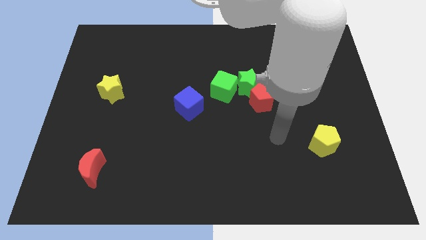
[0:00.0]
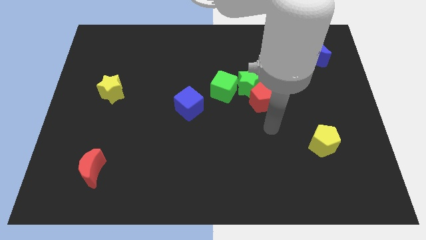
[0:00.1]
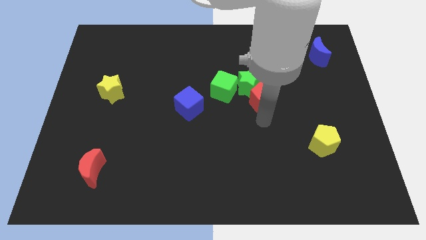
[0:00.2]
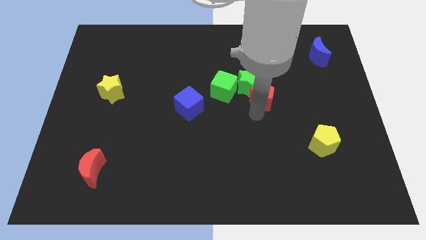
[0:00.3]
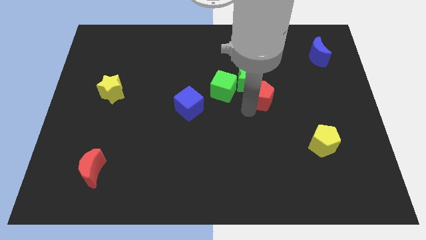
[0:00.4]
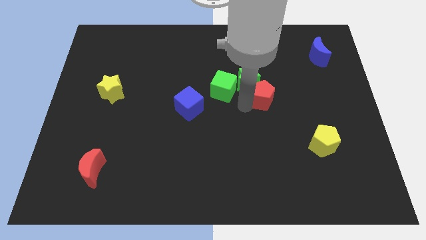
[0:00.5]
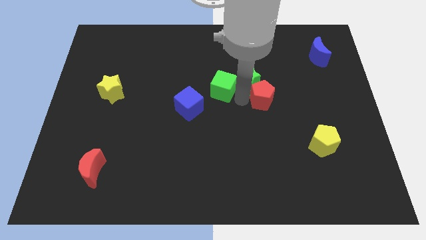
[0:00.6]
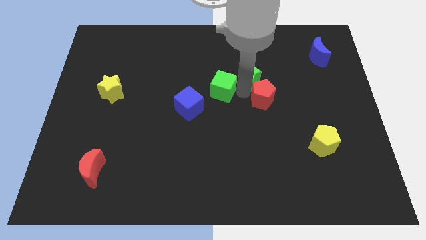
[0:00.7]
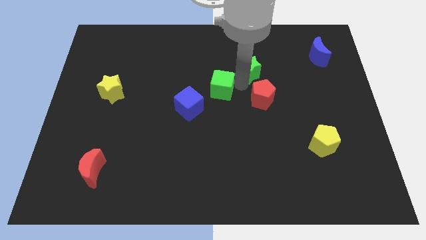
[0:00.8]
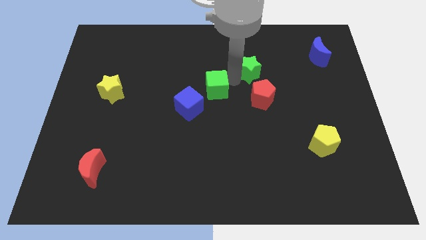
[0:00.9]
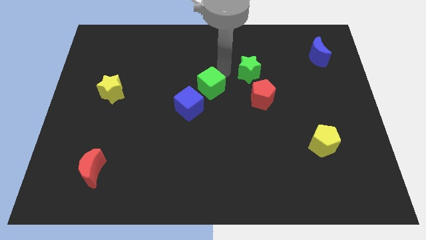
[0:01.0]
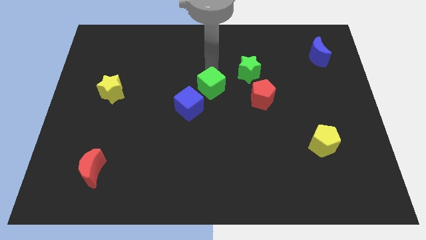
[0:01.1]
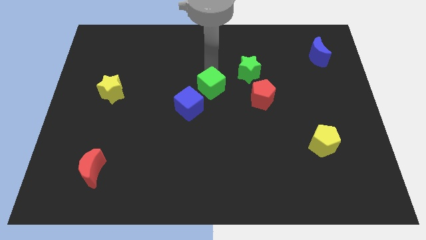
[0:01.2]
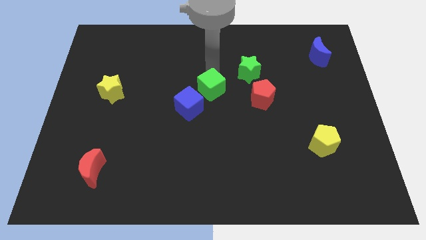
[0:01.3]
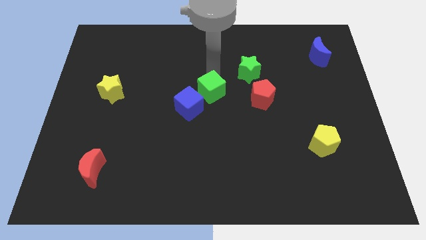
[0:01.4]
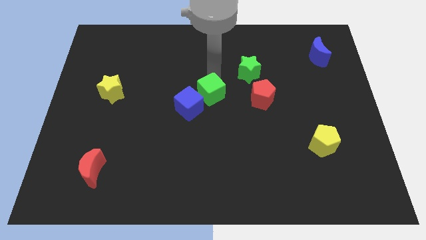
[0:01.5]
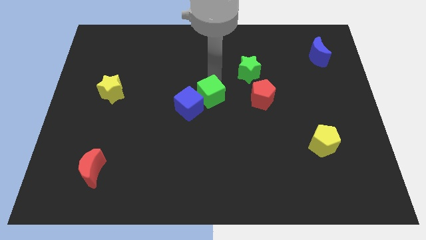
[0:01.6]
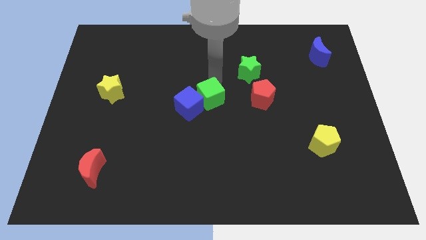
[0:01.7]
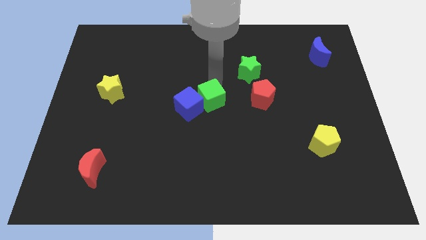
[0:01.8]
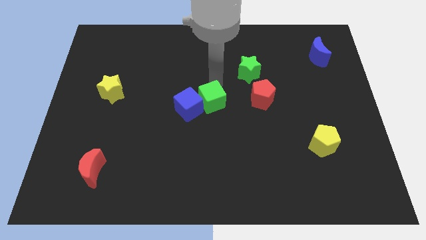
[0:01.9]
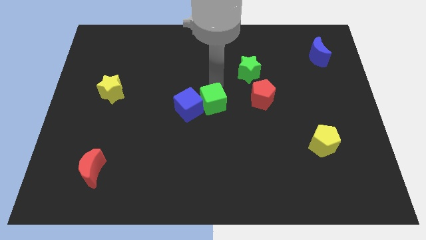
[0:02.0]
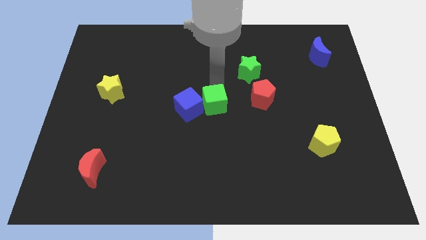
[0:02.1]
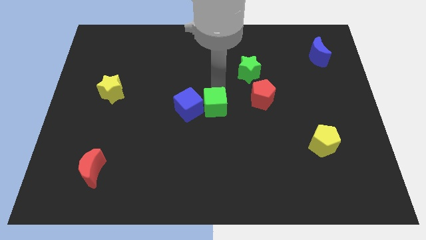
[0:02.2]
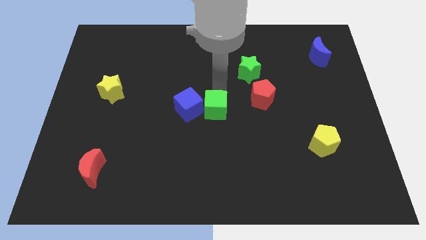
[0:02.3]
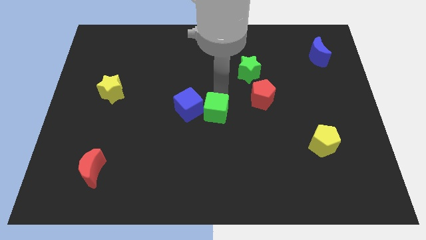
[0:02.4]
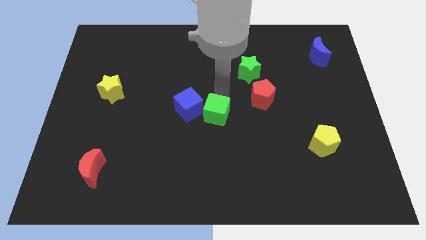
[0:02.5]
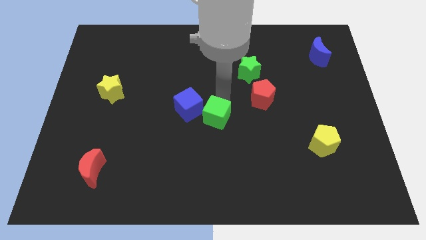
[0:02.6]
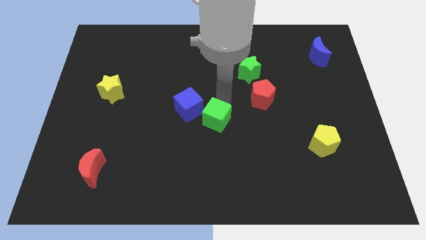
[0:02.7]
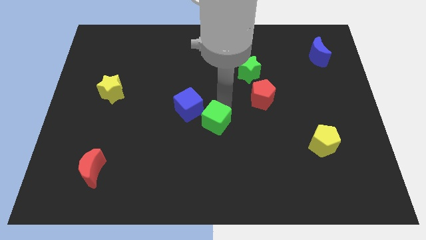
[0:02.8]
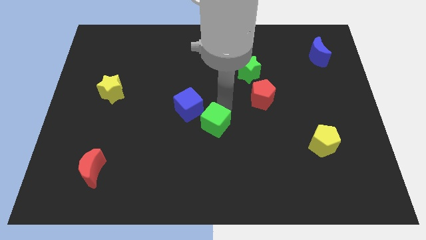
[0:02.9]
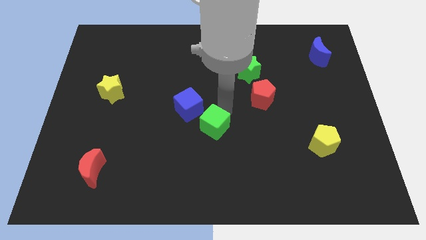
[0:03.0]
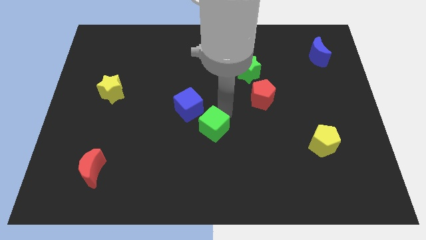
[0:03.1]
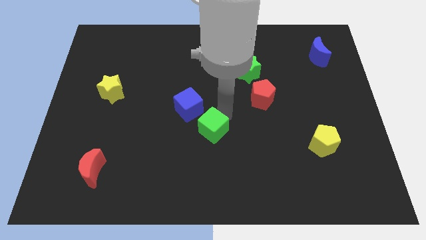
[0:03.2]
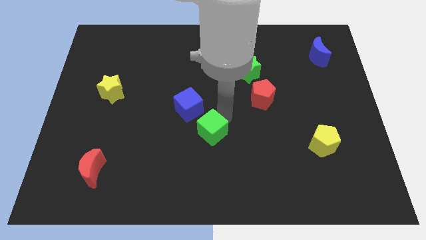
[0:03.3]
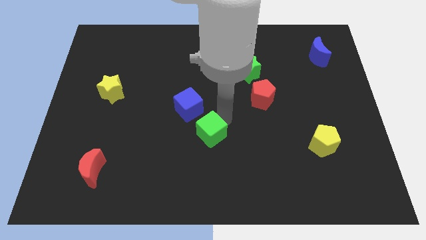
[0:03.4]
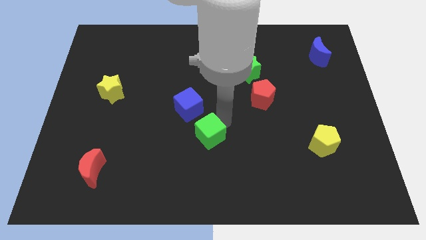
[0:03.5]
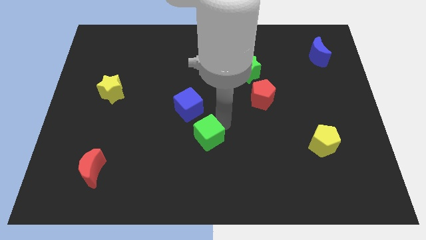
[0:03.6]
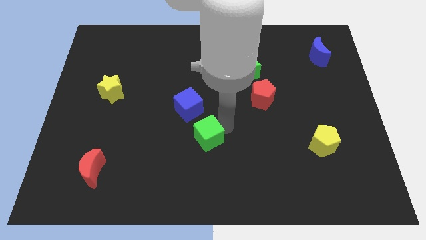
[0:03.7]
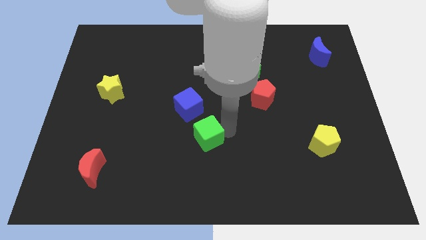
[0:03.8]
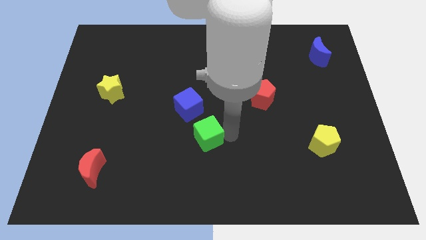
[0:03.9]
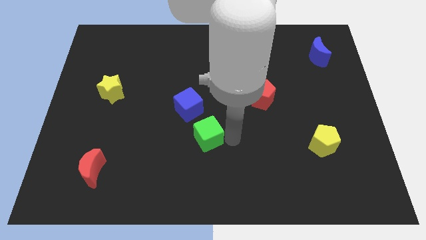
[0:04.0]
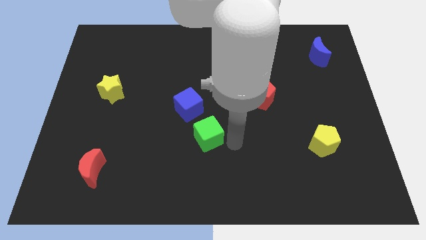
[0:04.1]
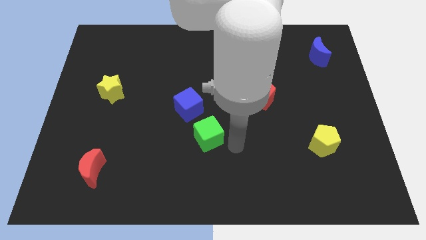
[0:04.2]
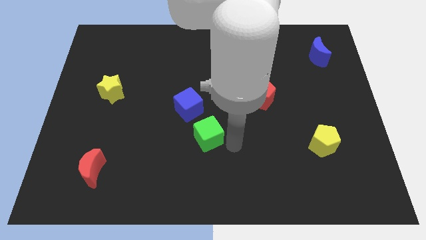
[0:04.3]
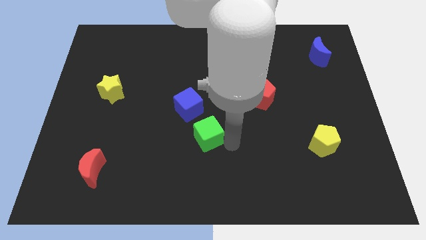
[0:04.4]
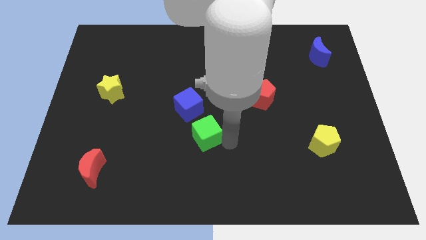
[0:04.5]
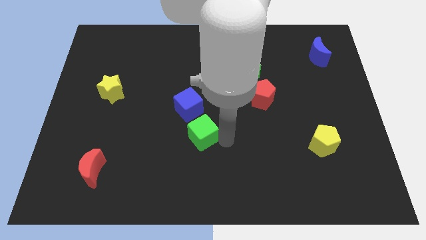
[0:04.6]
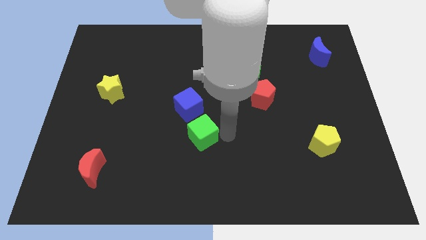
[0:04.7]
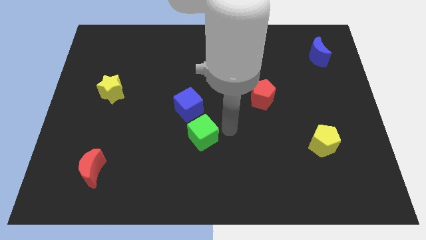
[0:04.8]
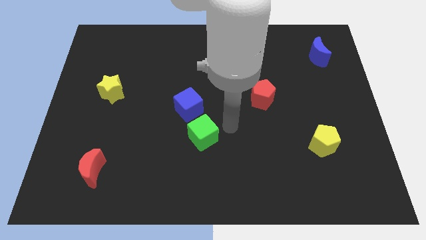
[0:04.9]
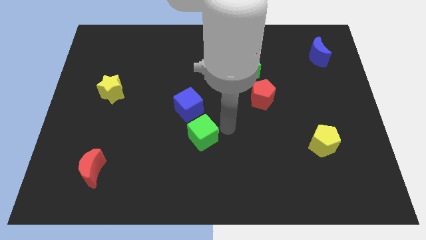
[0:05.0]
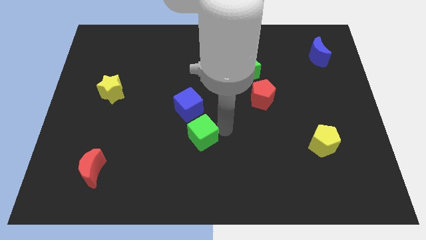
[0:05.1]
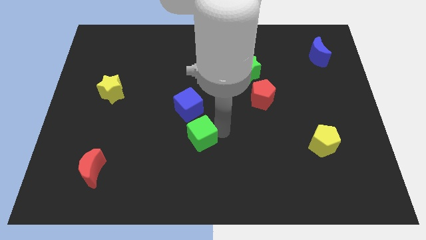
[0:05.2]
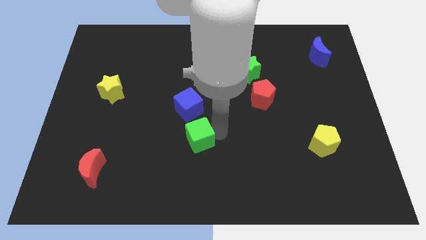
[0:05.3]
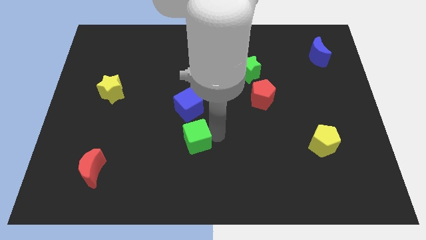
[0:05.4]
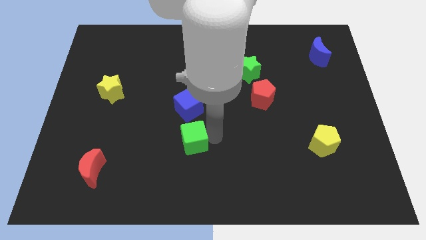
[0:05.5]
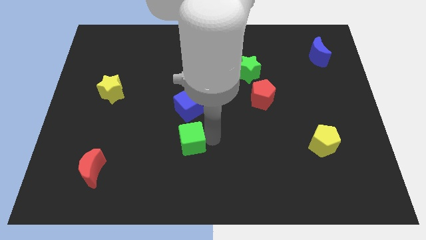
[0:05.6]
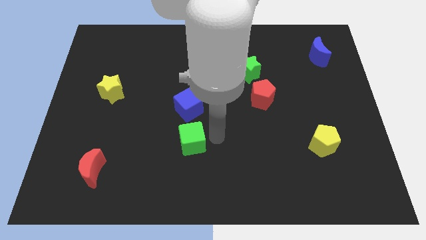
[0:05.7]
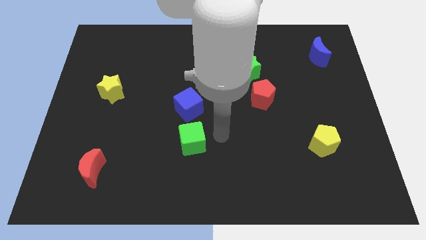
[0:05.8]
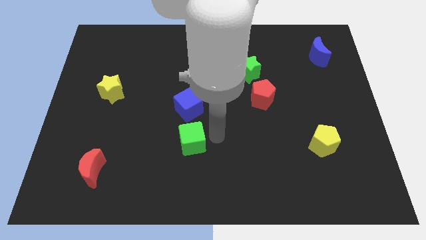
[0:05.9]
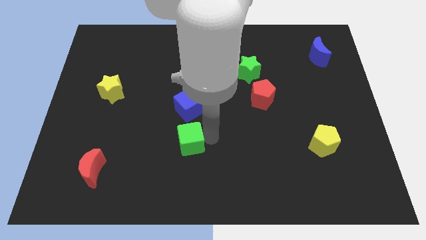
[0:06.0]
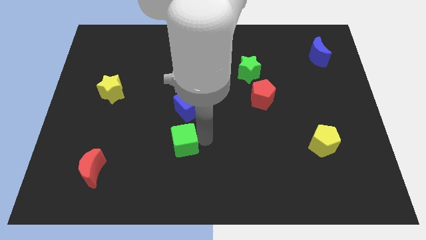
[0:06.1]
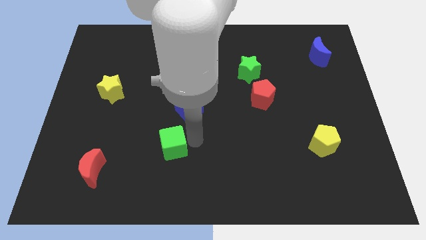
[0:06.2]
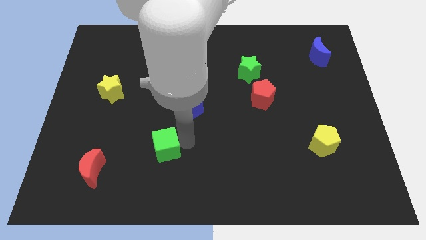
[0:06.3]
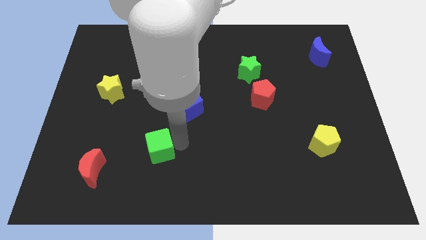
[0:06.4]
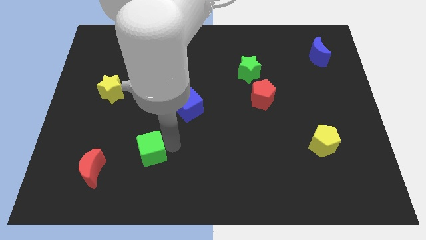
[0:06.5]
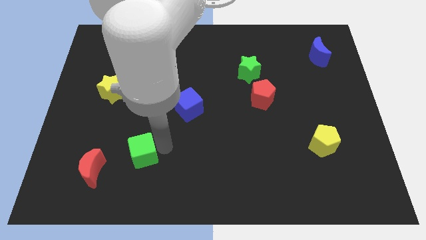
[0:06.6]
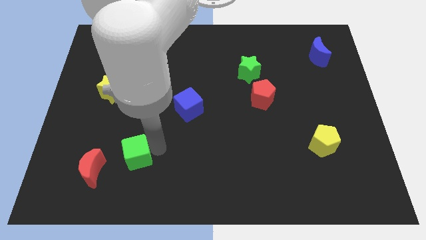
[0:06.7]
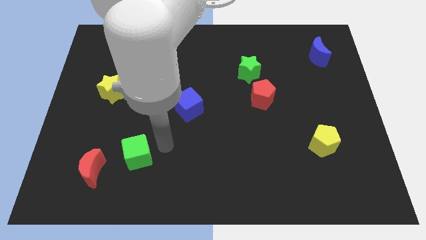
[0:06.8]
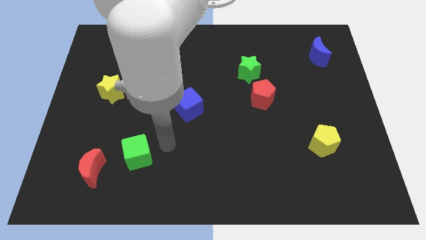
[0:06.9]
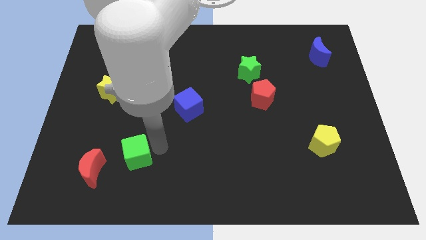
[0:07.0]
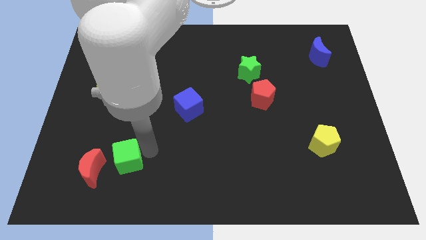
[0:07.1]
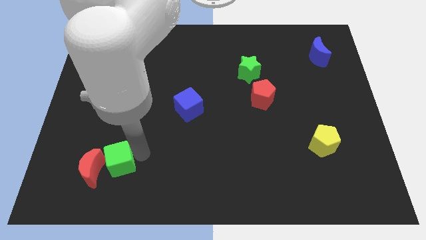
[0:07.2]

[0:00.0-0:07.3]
put the green cube next to the red moon
